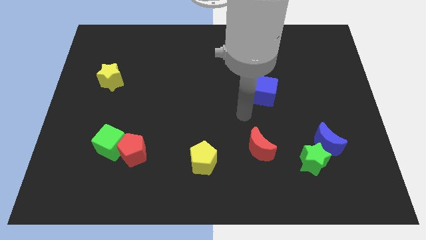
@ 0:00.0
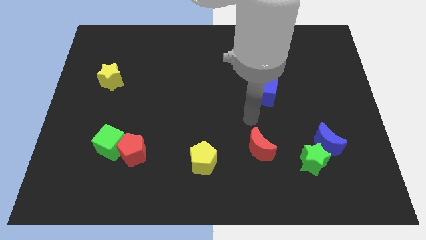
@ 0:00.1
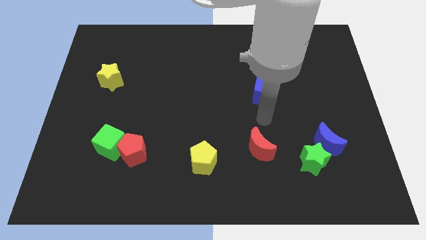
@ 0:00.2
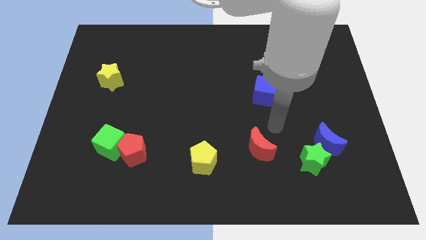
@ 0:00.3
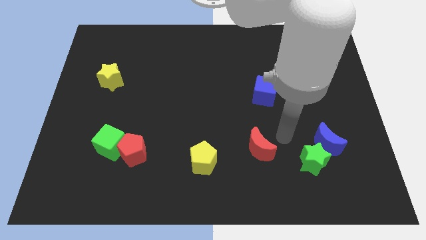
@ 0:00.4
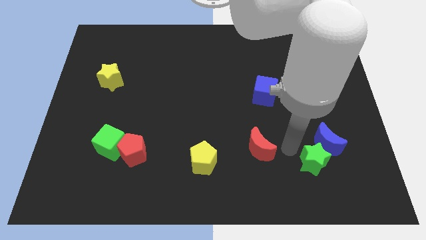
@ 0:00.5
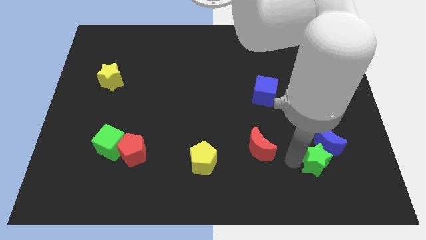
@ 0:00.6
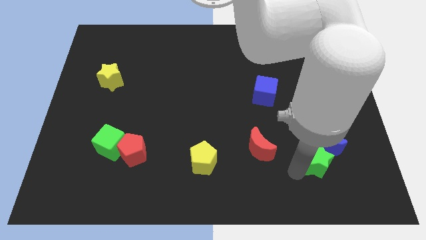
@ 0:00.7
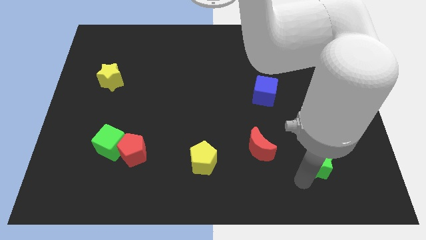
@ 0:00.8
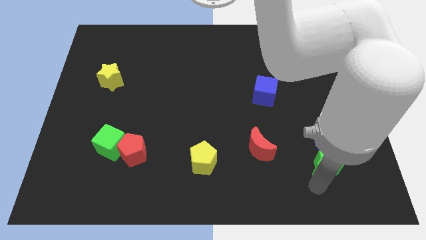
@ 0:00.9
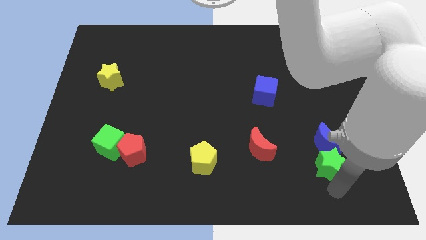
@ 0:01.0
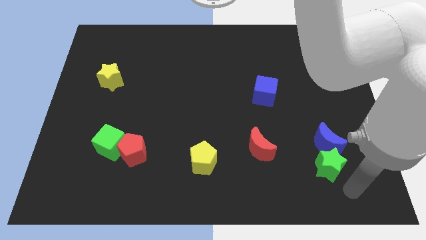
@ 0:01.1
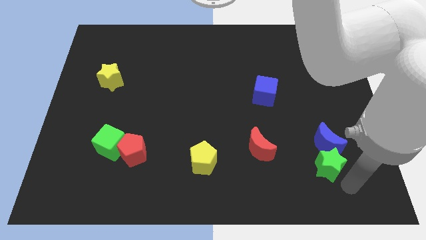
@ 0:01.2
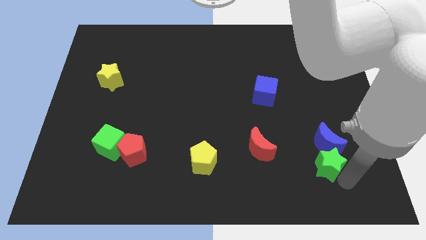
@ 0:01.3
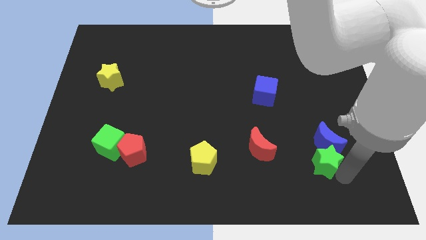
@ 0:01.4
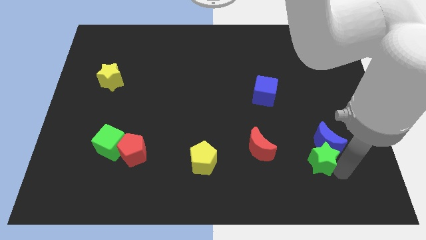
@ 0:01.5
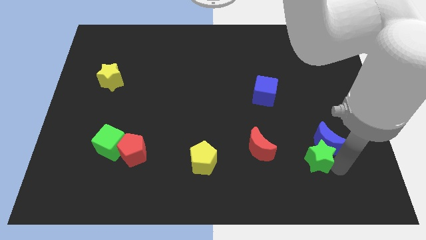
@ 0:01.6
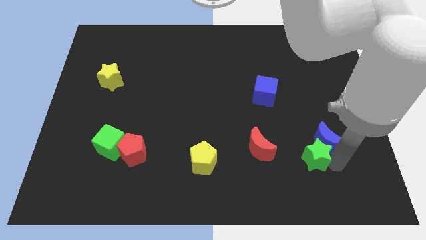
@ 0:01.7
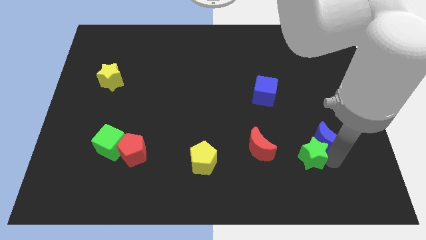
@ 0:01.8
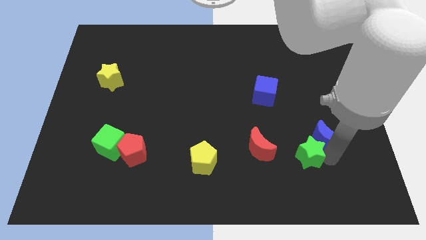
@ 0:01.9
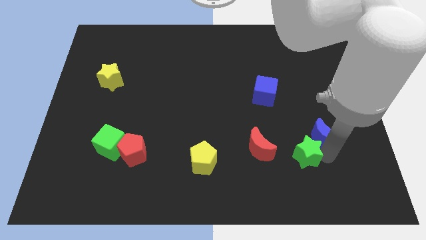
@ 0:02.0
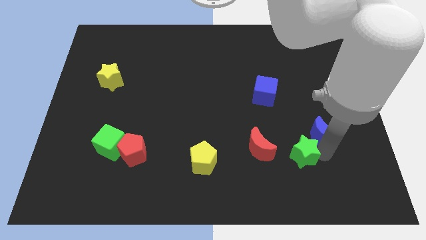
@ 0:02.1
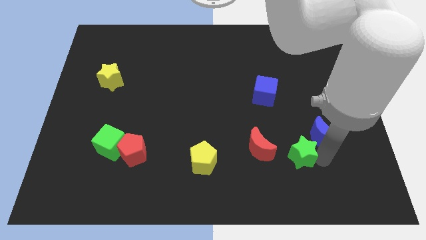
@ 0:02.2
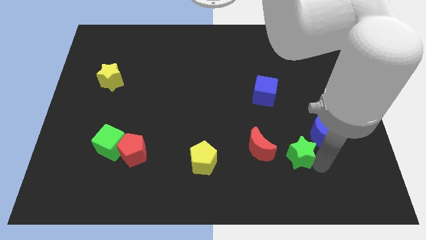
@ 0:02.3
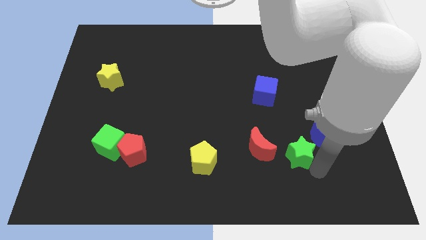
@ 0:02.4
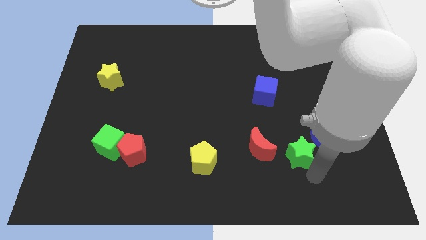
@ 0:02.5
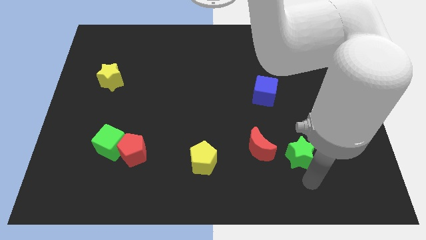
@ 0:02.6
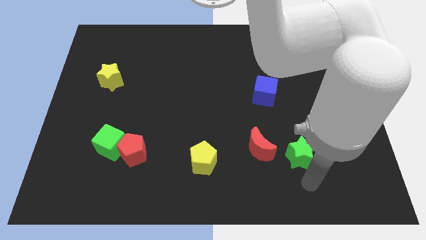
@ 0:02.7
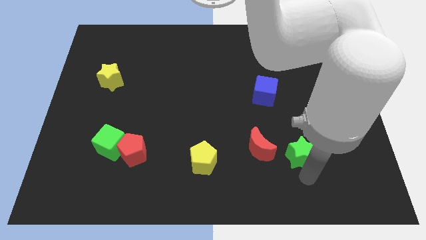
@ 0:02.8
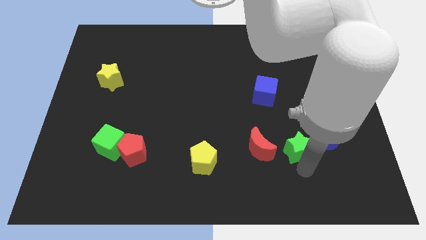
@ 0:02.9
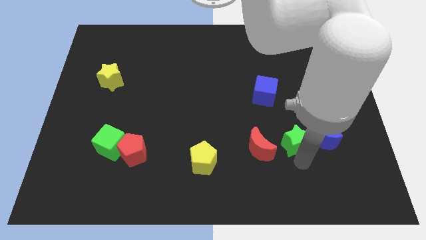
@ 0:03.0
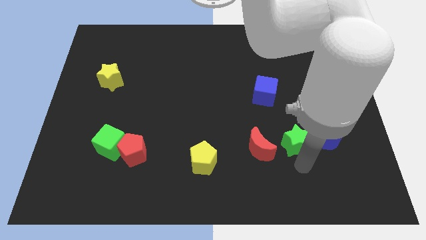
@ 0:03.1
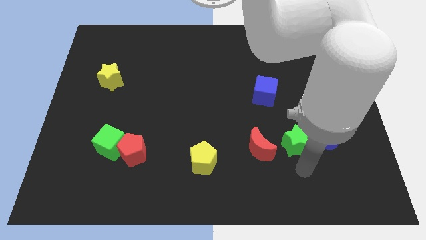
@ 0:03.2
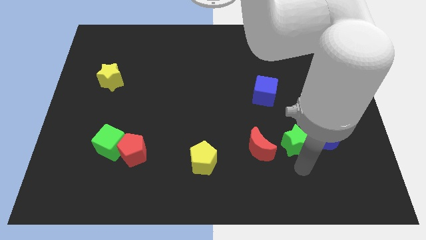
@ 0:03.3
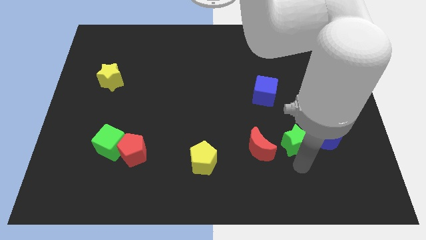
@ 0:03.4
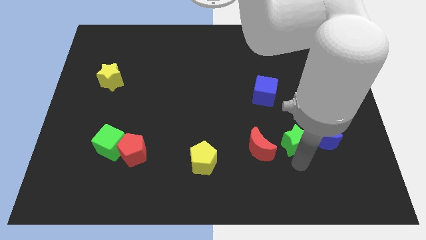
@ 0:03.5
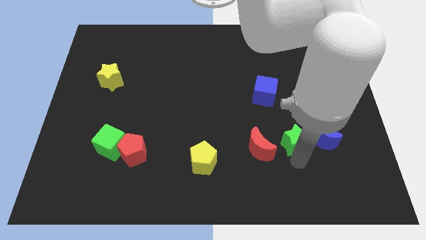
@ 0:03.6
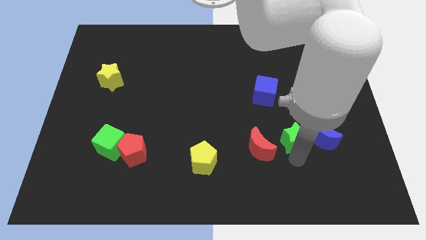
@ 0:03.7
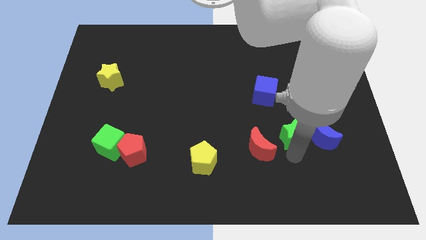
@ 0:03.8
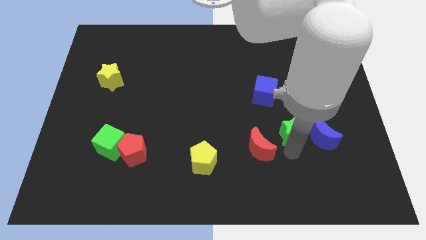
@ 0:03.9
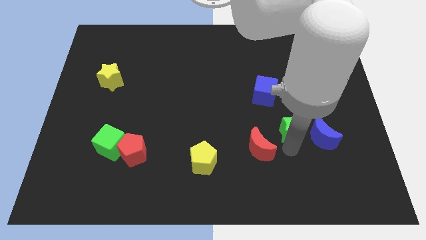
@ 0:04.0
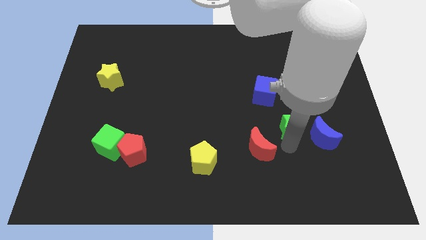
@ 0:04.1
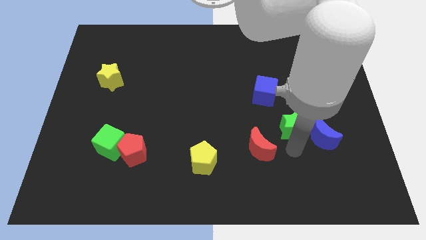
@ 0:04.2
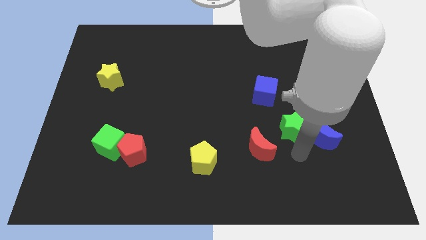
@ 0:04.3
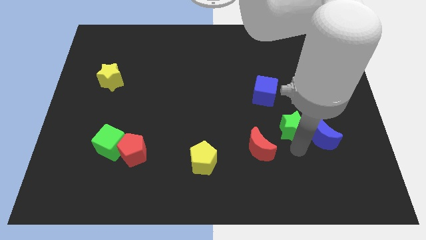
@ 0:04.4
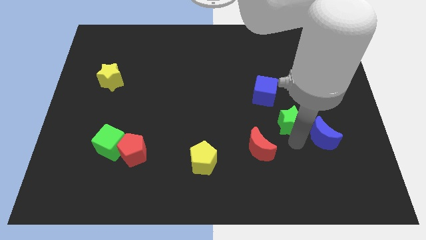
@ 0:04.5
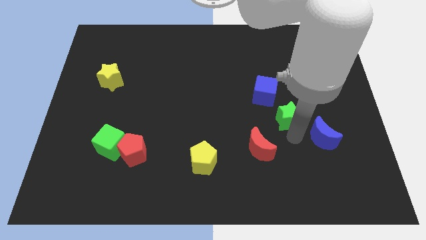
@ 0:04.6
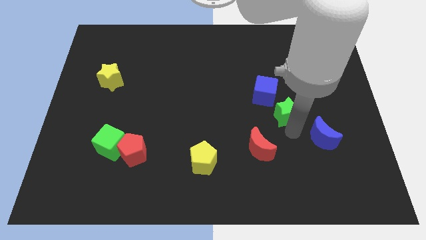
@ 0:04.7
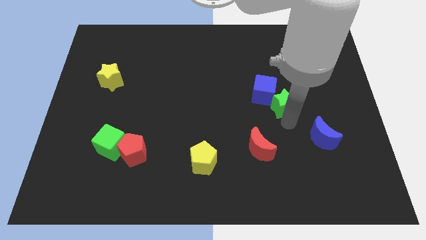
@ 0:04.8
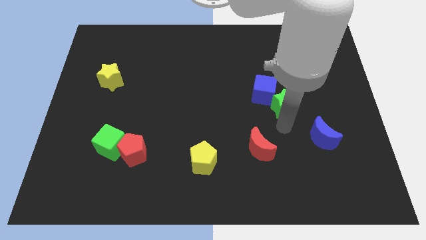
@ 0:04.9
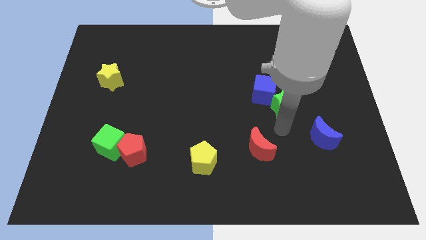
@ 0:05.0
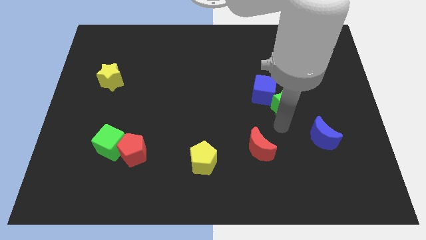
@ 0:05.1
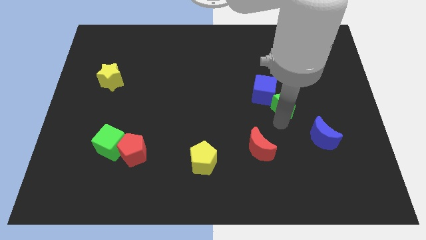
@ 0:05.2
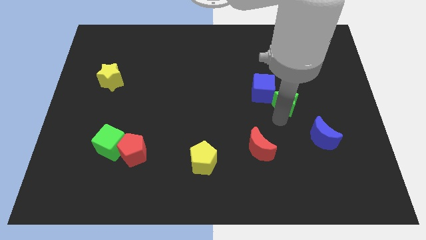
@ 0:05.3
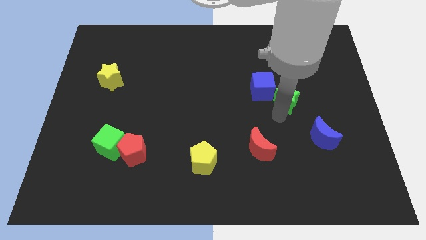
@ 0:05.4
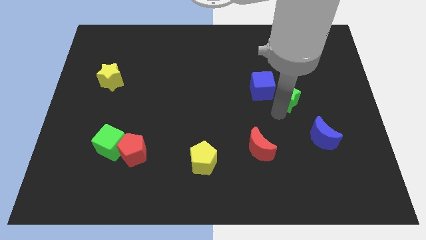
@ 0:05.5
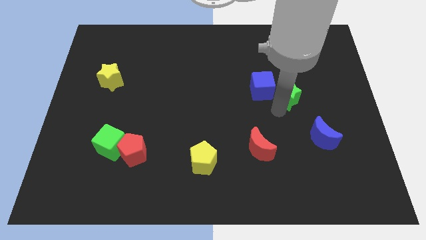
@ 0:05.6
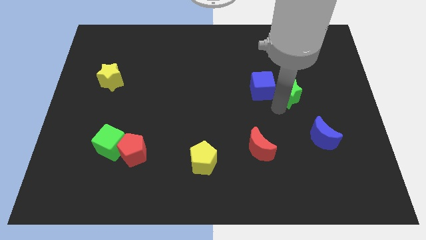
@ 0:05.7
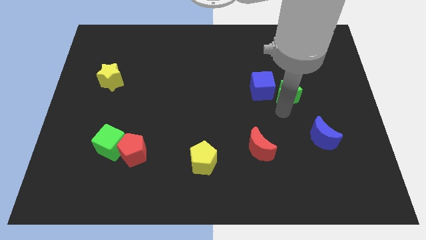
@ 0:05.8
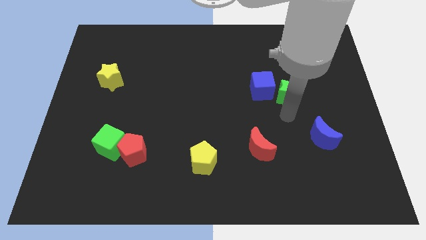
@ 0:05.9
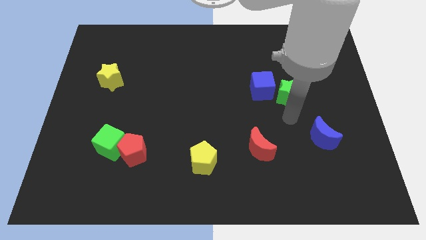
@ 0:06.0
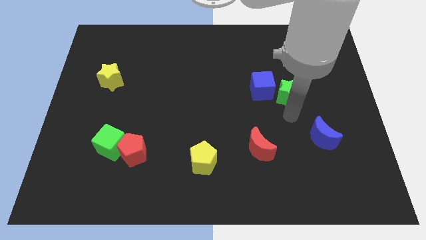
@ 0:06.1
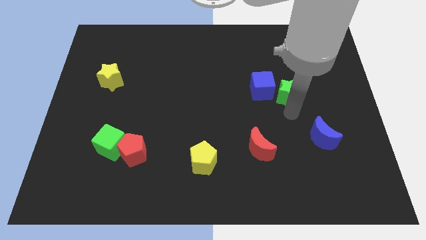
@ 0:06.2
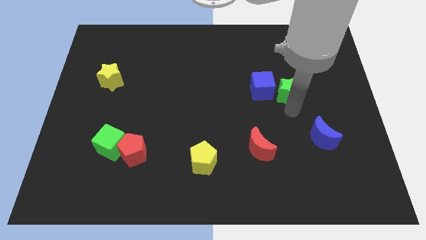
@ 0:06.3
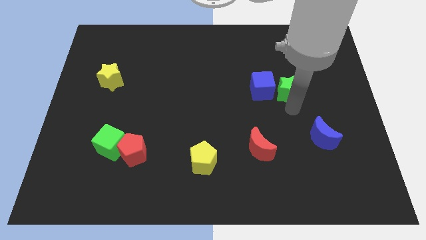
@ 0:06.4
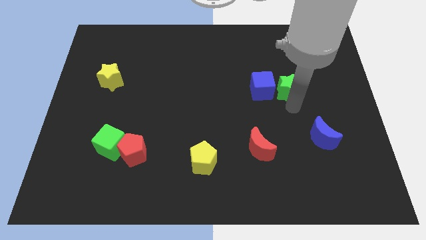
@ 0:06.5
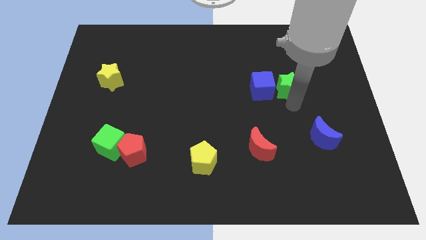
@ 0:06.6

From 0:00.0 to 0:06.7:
move the green star up

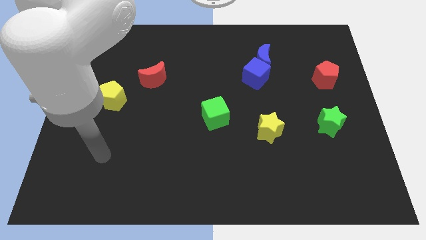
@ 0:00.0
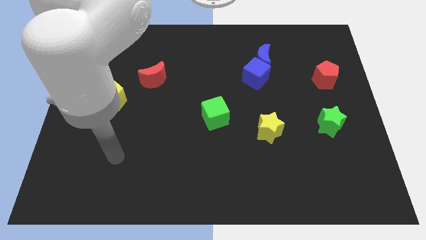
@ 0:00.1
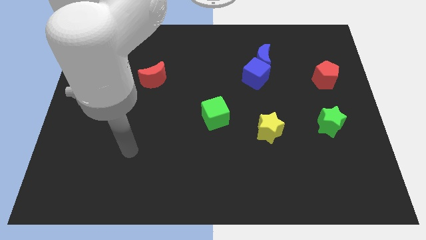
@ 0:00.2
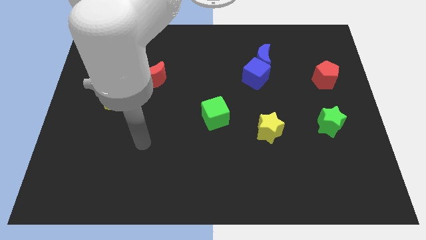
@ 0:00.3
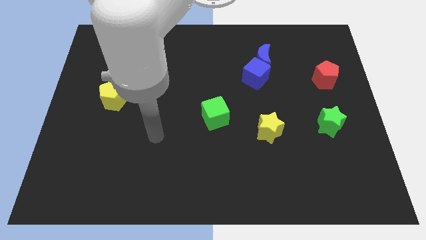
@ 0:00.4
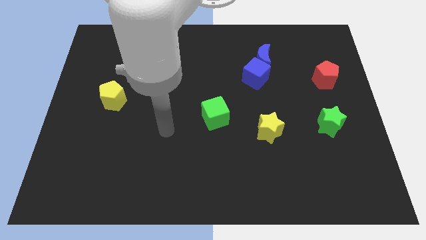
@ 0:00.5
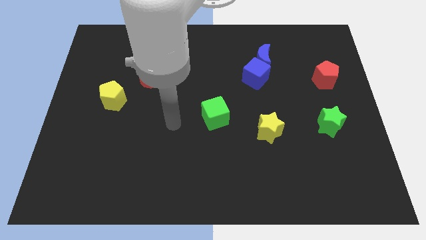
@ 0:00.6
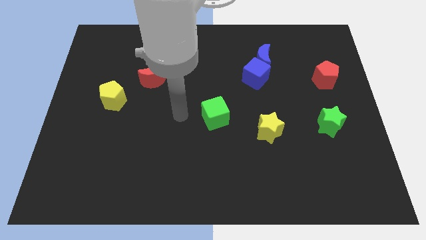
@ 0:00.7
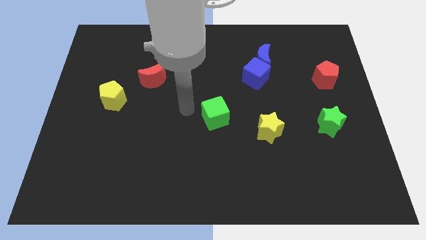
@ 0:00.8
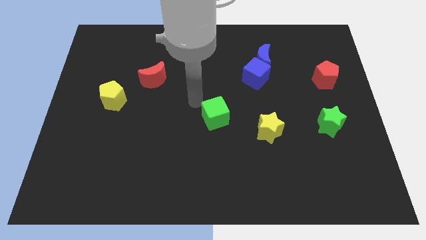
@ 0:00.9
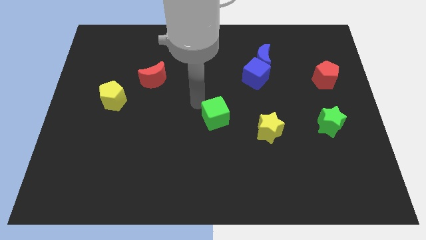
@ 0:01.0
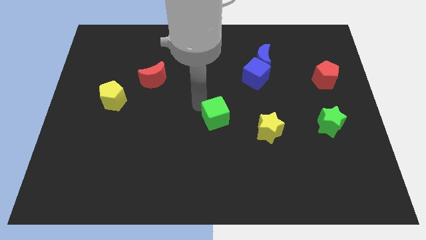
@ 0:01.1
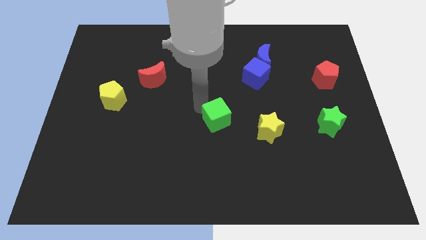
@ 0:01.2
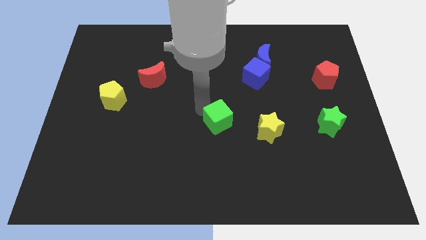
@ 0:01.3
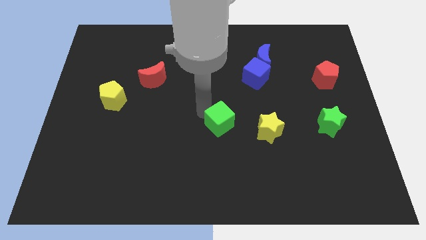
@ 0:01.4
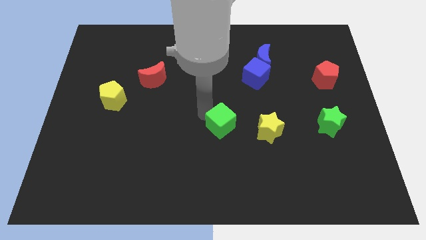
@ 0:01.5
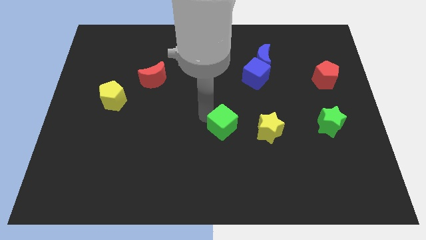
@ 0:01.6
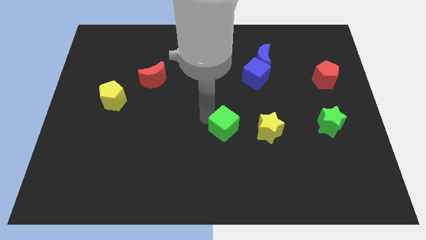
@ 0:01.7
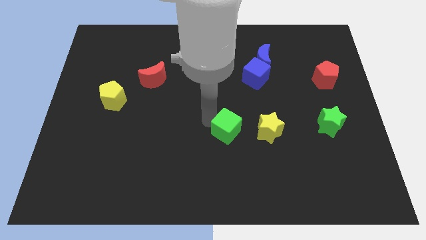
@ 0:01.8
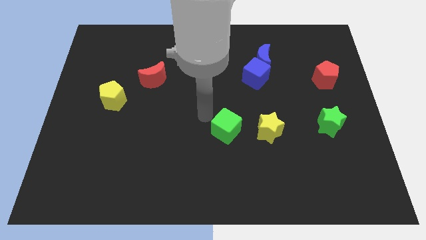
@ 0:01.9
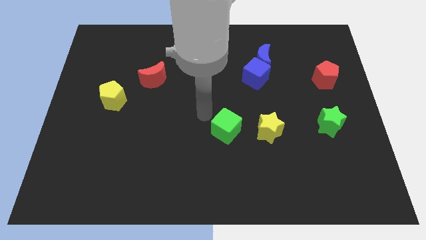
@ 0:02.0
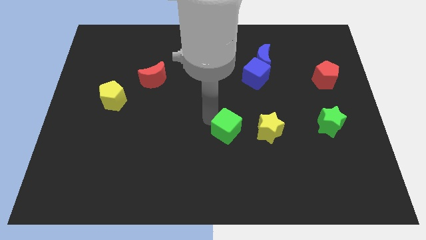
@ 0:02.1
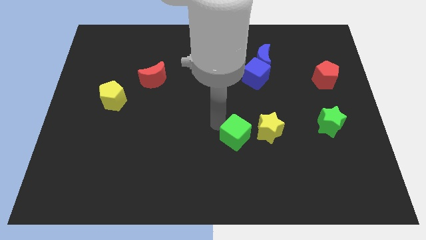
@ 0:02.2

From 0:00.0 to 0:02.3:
push the green cube a bit down and to the right
